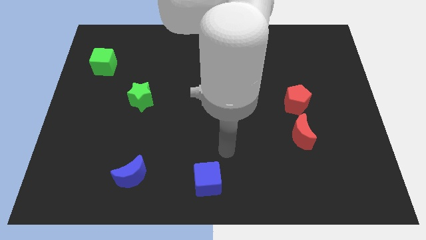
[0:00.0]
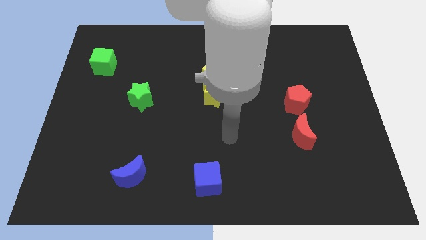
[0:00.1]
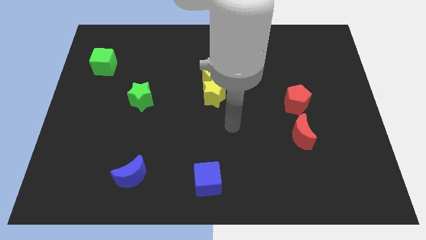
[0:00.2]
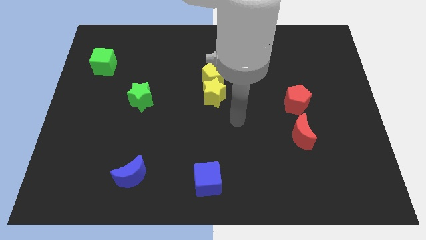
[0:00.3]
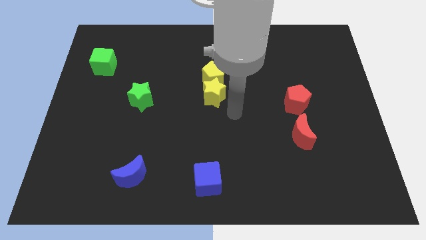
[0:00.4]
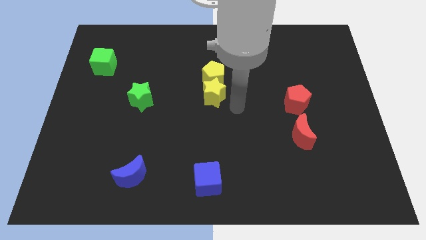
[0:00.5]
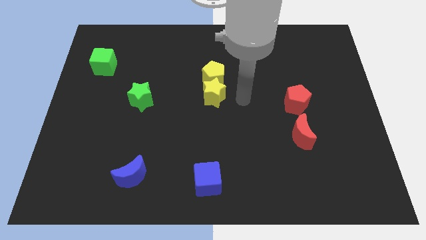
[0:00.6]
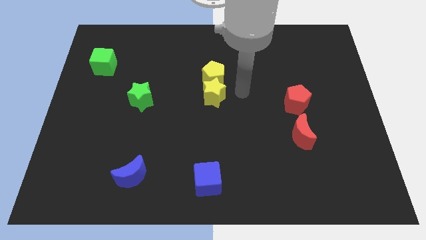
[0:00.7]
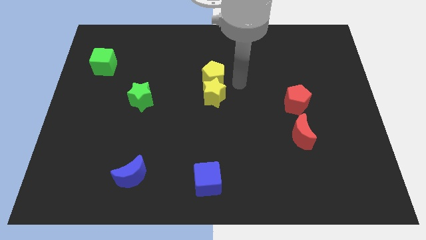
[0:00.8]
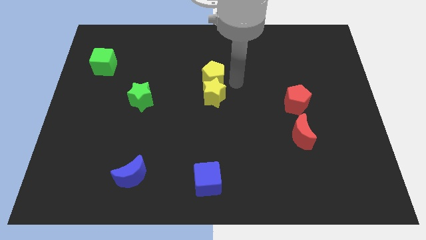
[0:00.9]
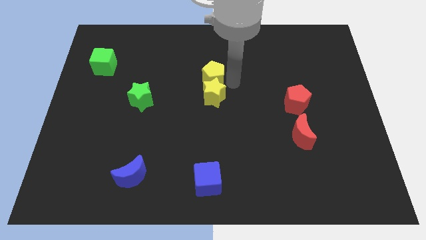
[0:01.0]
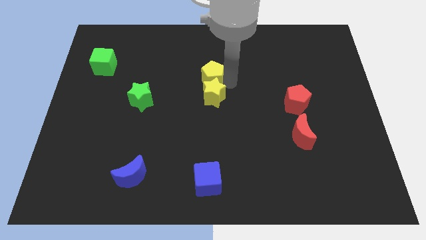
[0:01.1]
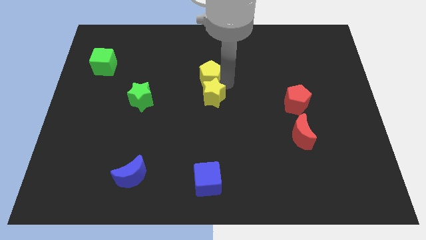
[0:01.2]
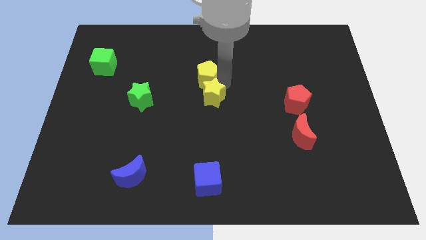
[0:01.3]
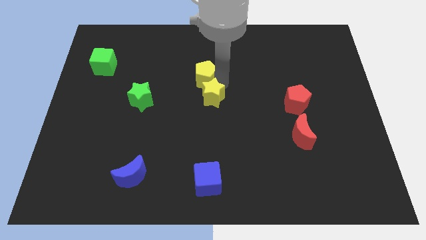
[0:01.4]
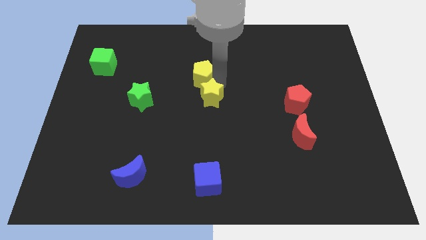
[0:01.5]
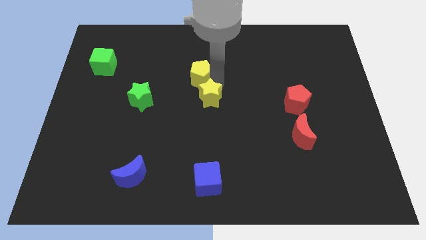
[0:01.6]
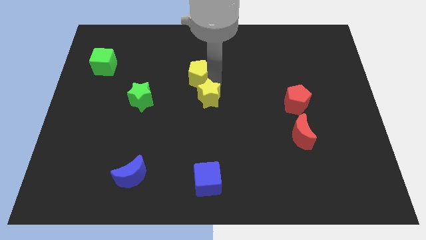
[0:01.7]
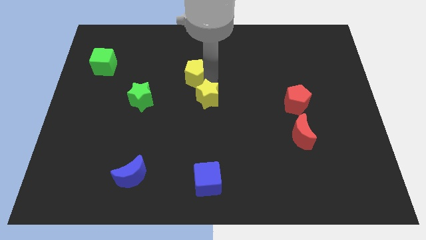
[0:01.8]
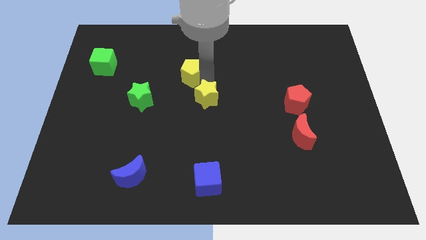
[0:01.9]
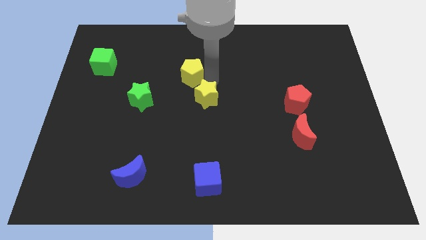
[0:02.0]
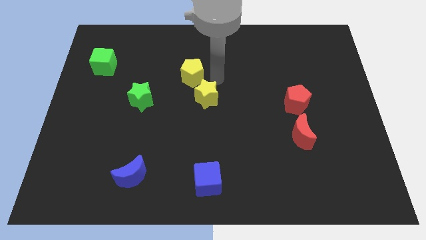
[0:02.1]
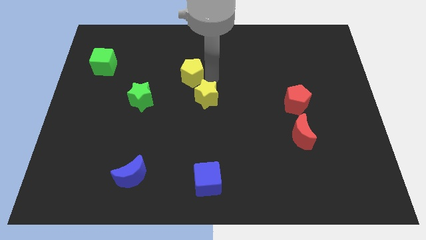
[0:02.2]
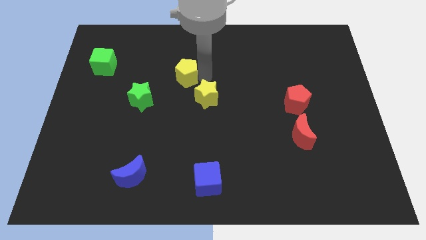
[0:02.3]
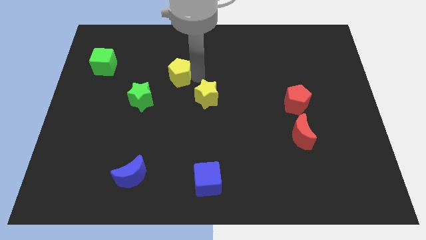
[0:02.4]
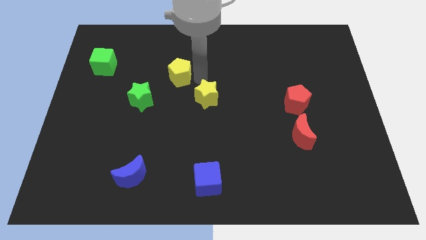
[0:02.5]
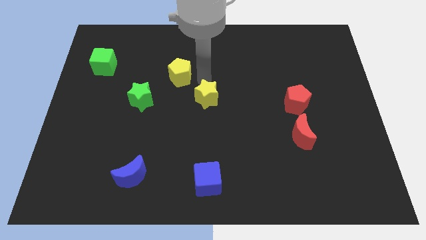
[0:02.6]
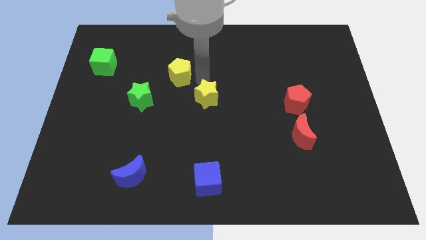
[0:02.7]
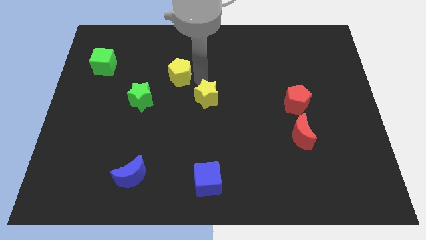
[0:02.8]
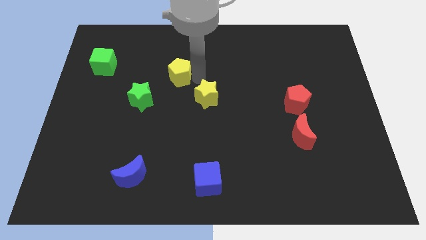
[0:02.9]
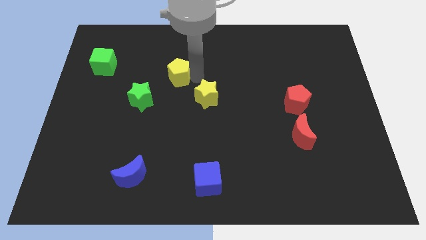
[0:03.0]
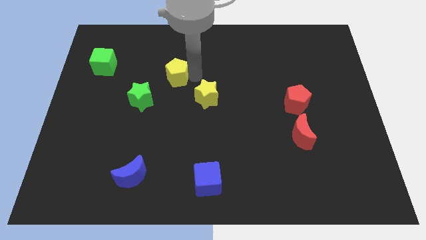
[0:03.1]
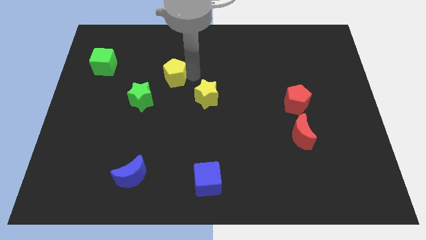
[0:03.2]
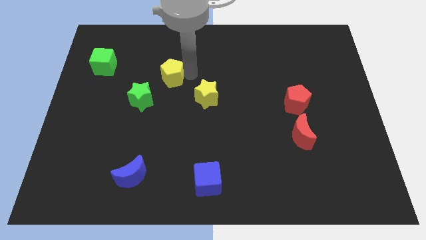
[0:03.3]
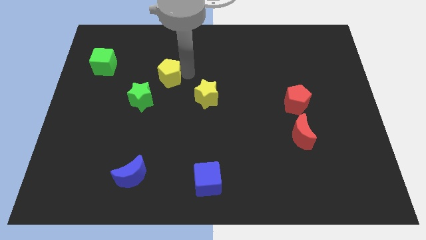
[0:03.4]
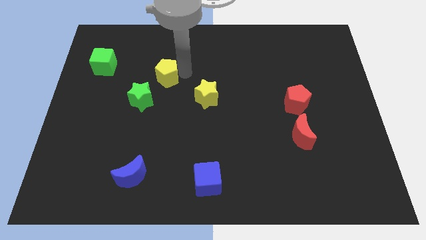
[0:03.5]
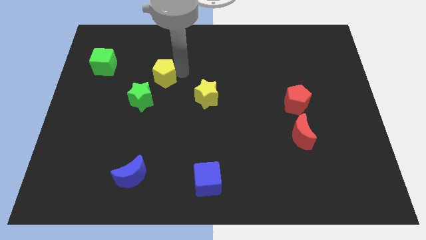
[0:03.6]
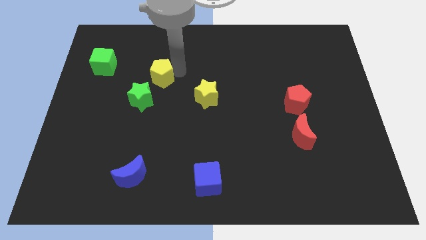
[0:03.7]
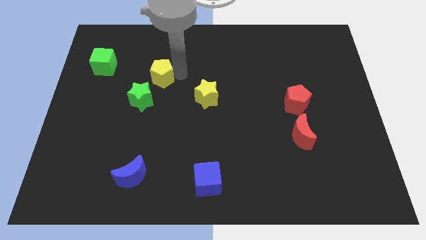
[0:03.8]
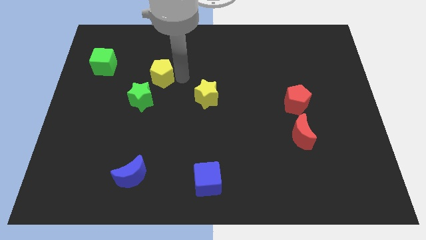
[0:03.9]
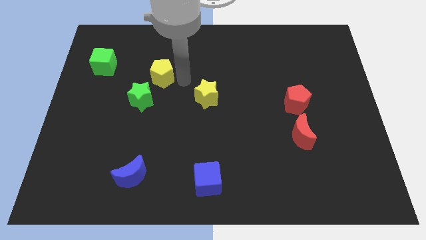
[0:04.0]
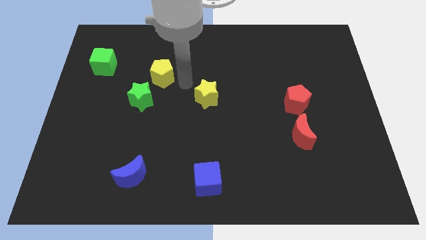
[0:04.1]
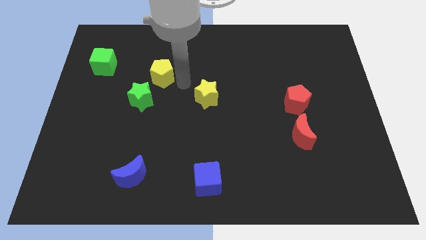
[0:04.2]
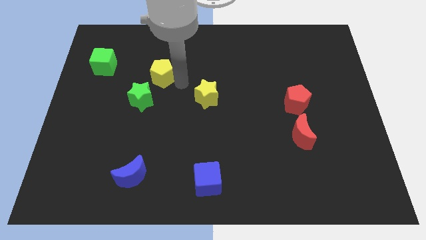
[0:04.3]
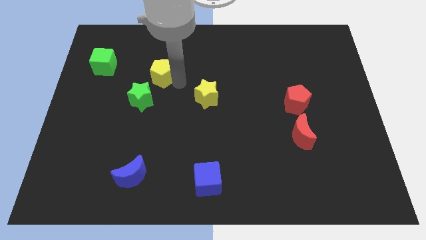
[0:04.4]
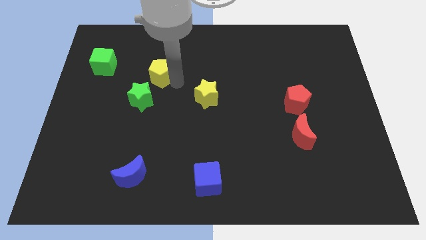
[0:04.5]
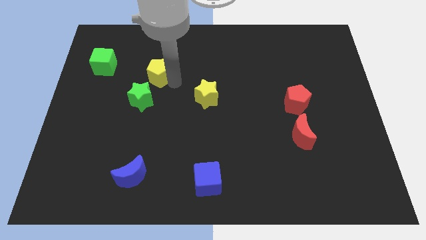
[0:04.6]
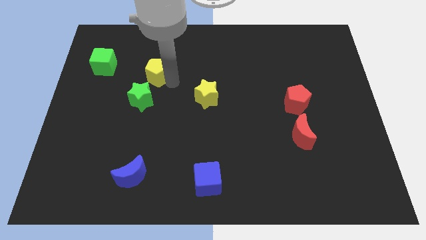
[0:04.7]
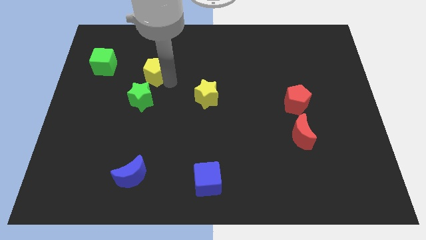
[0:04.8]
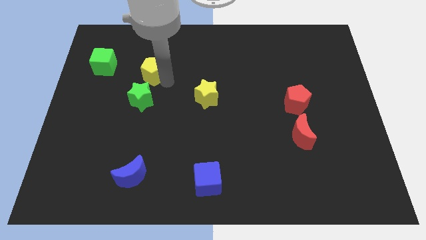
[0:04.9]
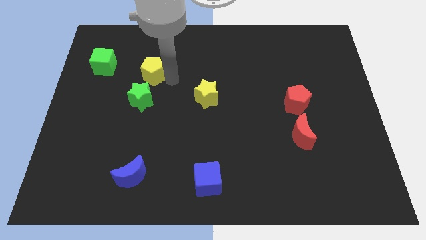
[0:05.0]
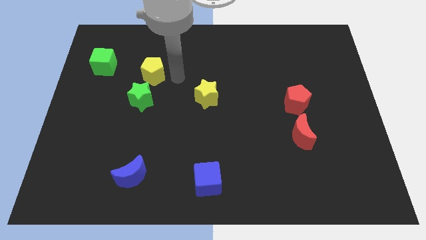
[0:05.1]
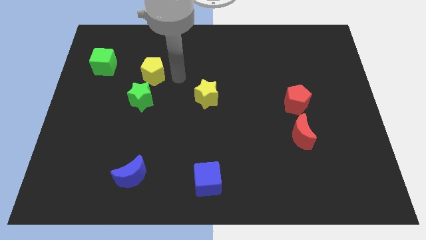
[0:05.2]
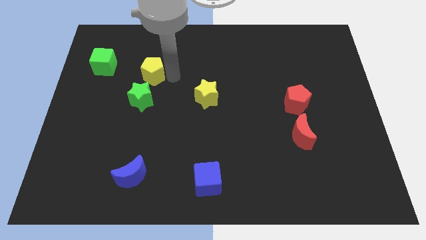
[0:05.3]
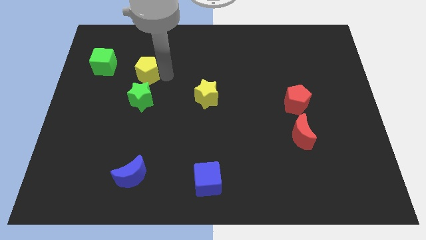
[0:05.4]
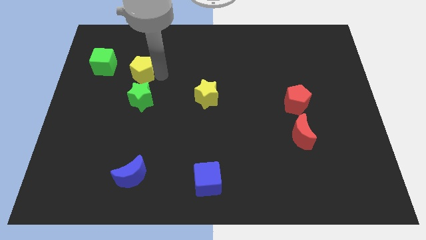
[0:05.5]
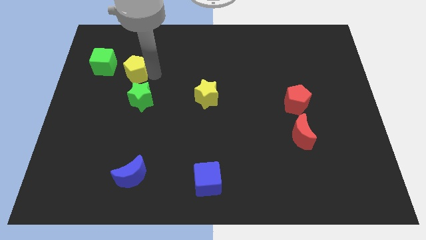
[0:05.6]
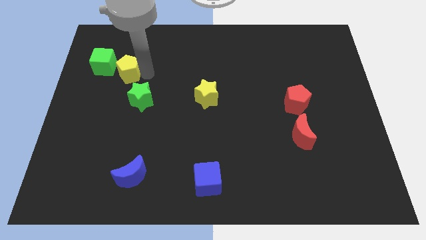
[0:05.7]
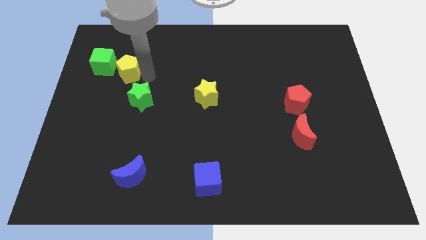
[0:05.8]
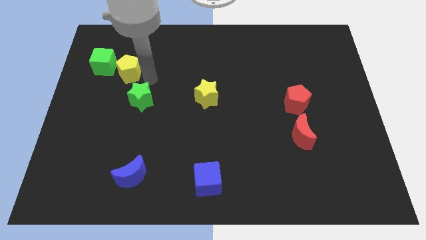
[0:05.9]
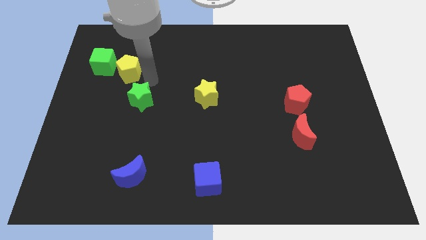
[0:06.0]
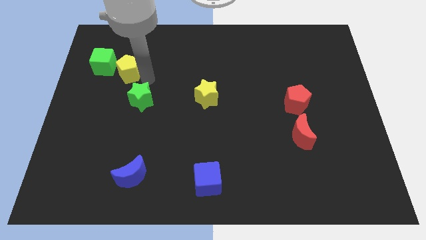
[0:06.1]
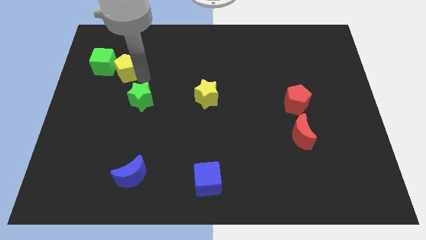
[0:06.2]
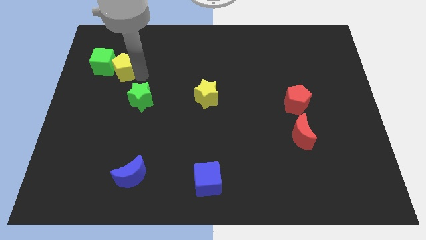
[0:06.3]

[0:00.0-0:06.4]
put the yellow pentagon close to the green cube
